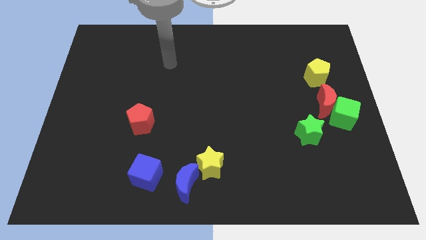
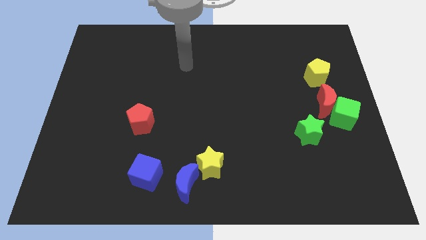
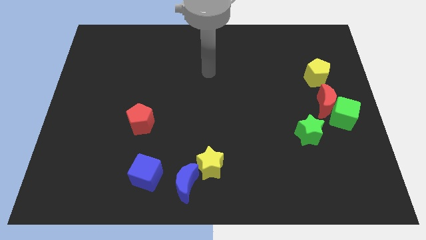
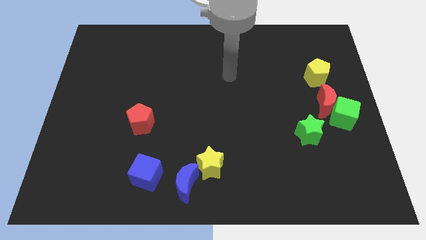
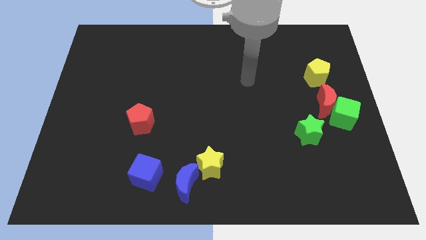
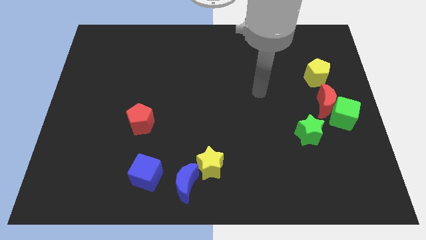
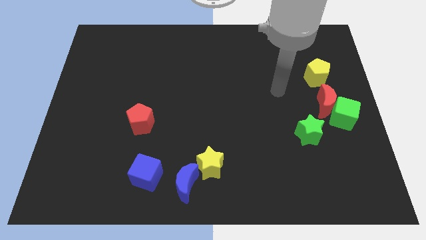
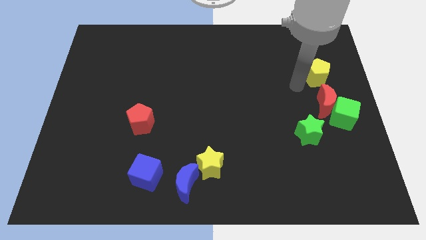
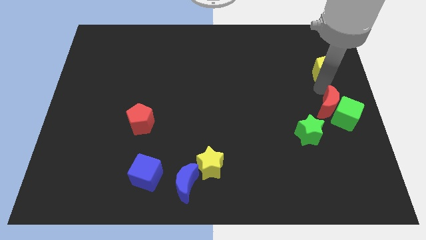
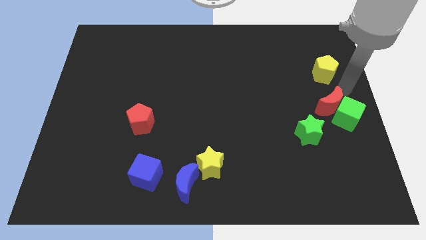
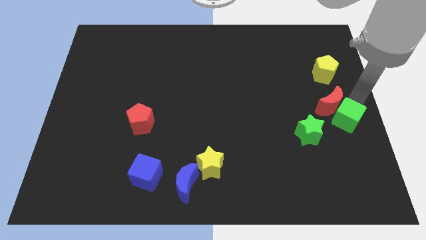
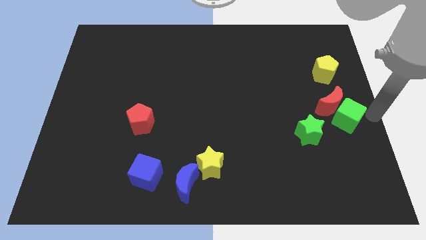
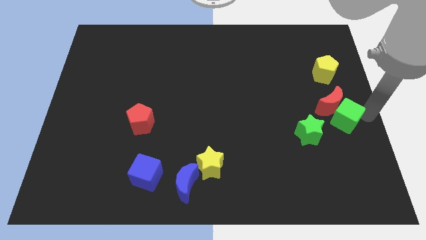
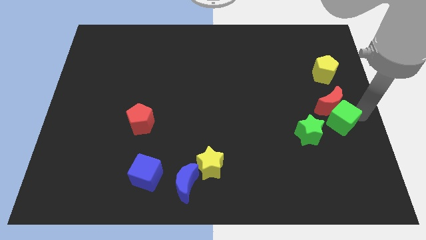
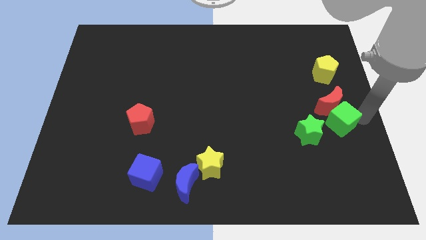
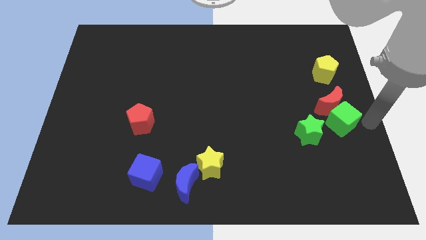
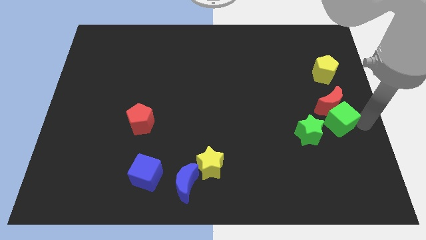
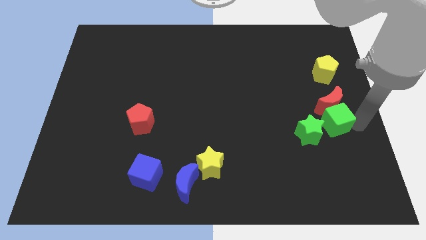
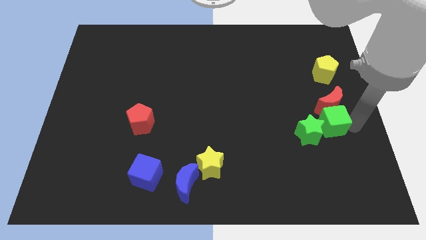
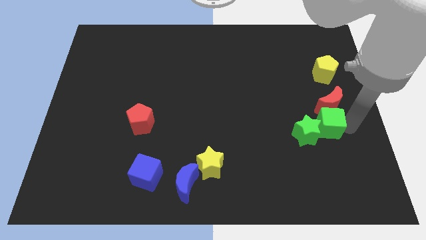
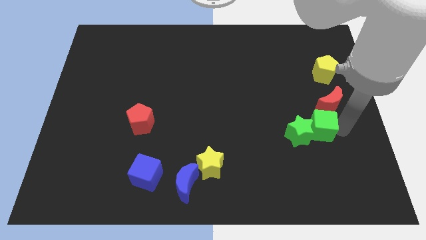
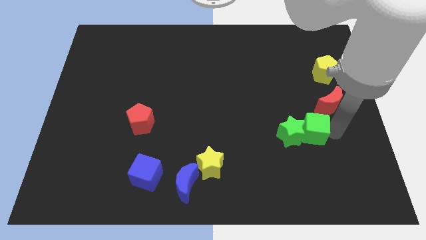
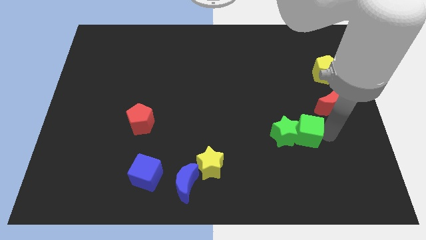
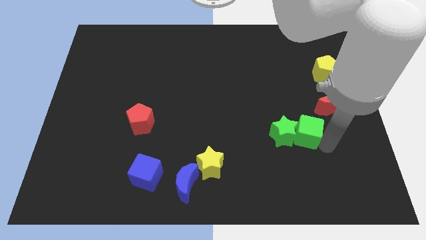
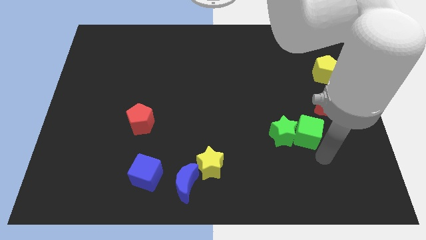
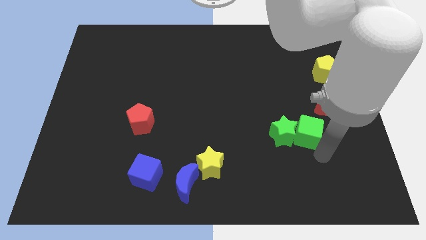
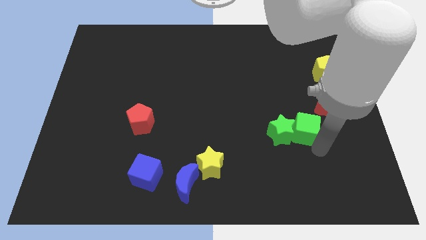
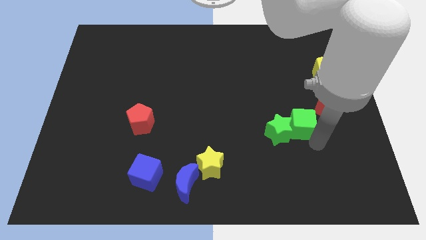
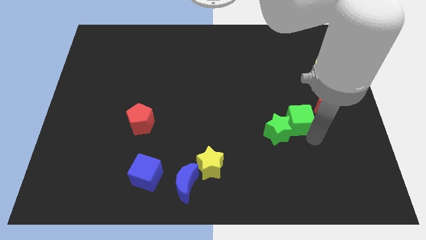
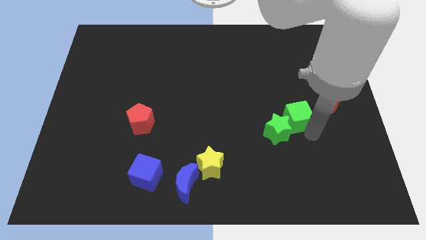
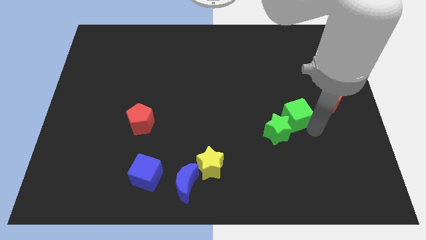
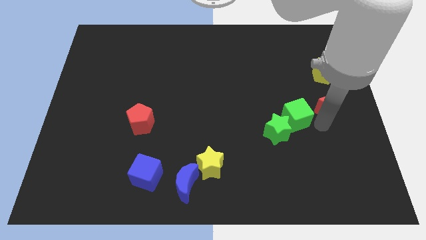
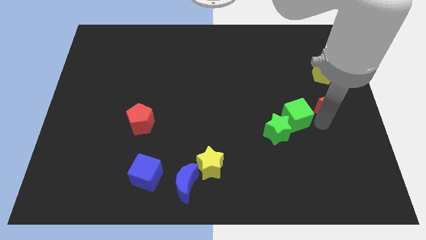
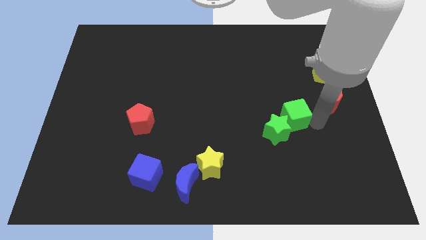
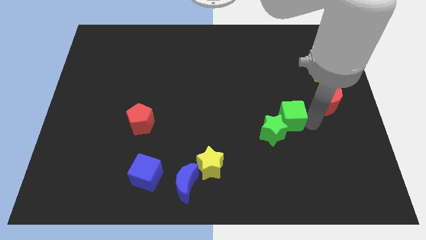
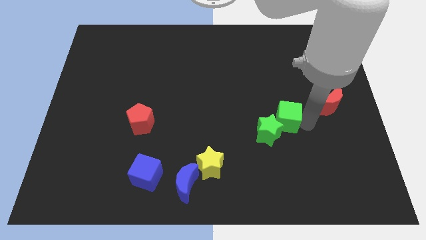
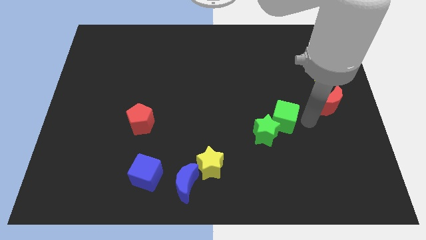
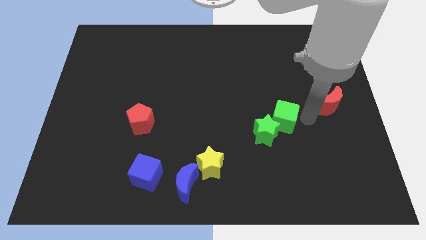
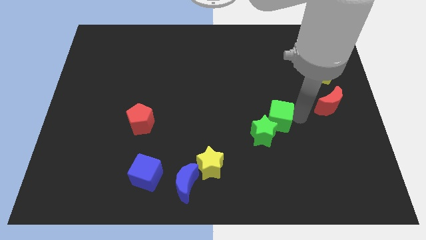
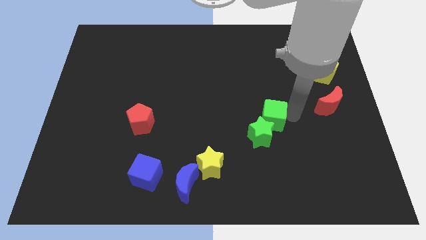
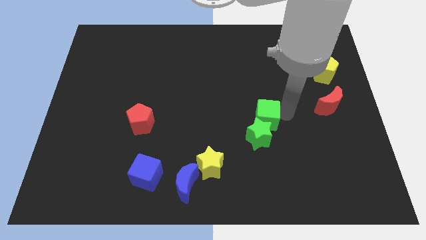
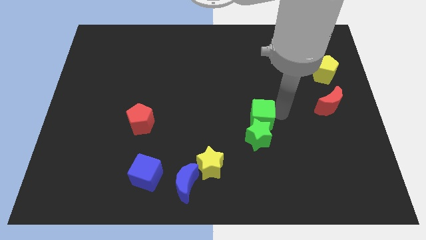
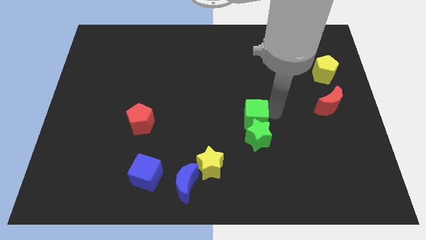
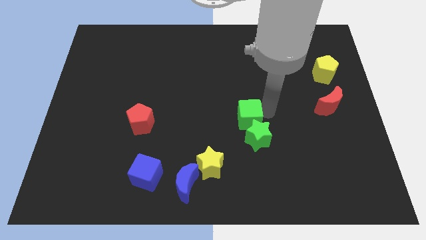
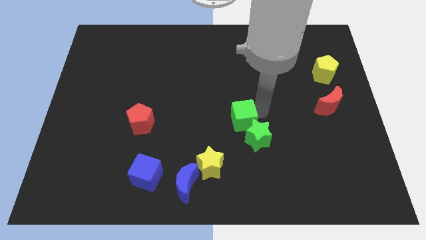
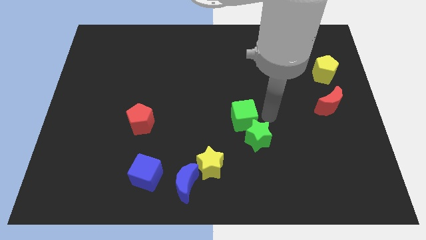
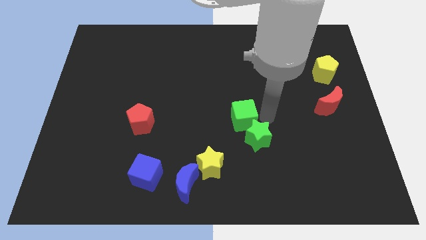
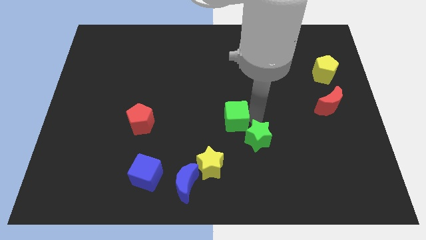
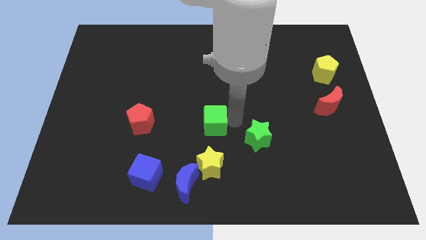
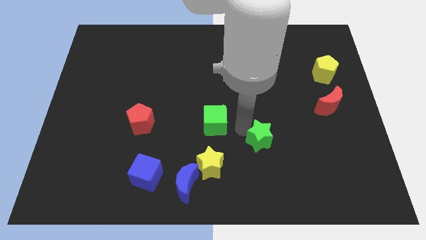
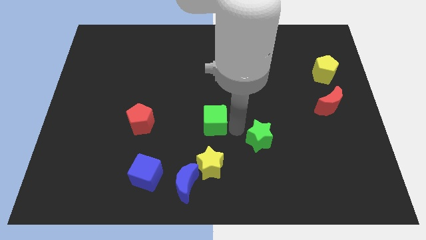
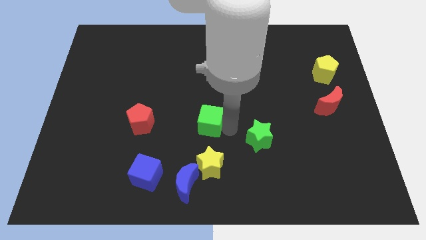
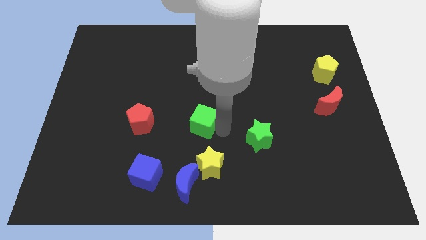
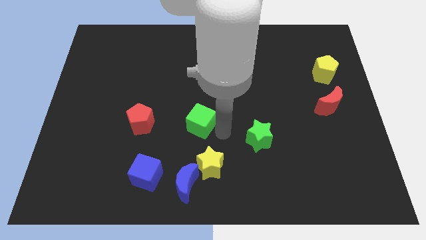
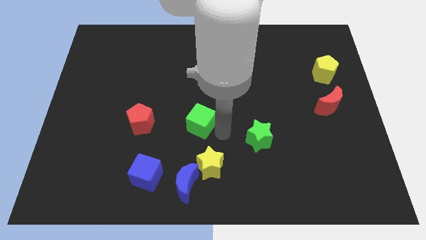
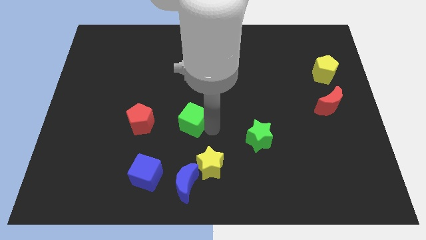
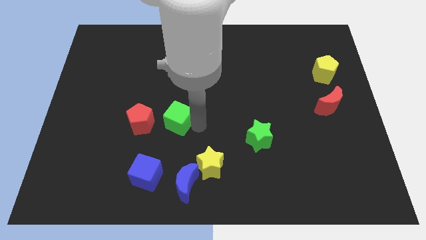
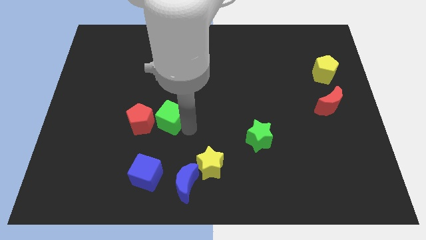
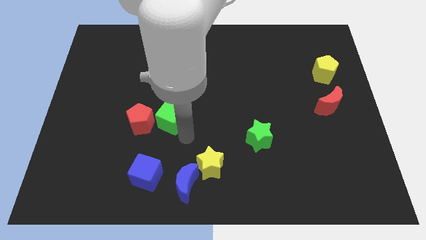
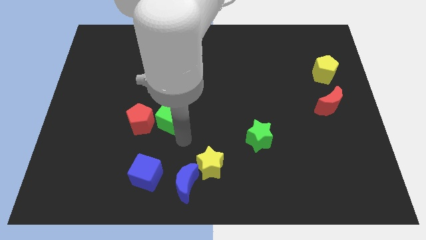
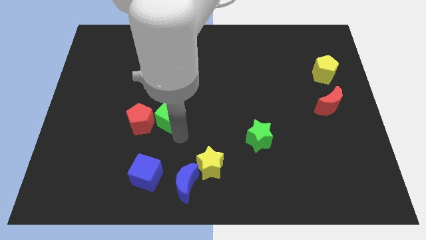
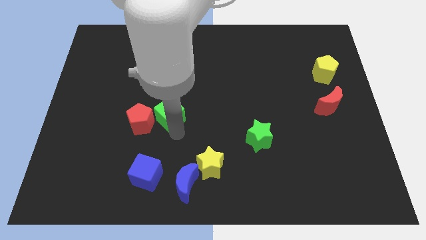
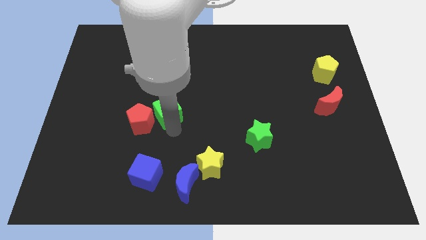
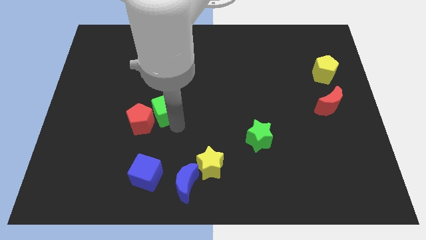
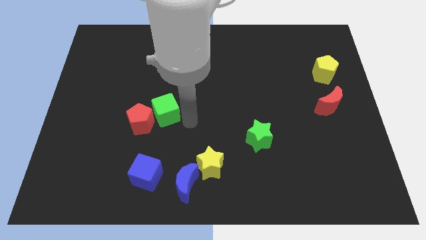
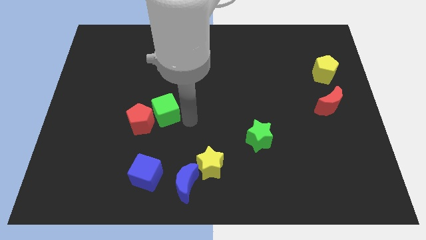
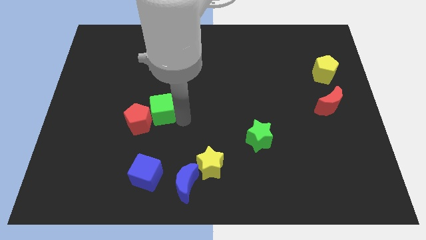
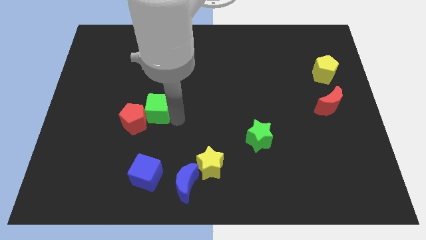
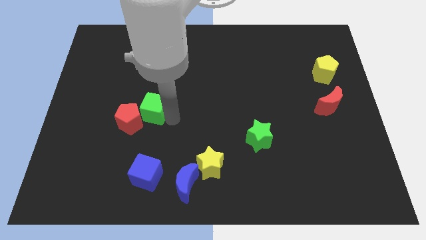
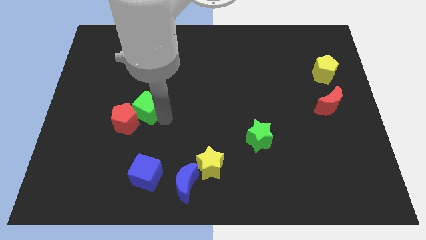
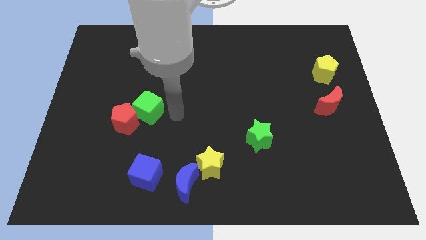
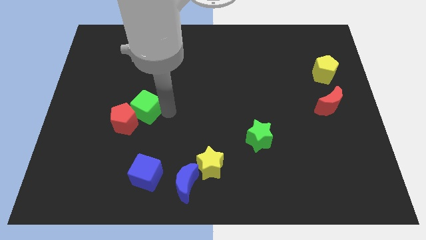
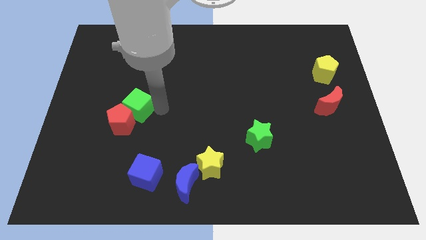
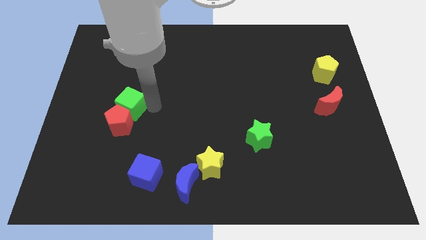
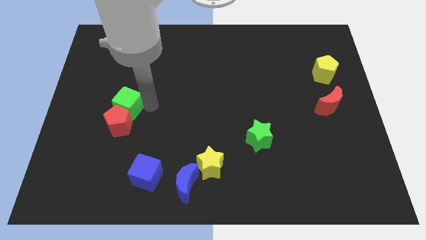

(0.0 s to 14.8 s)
push the green cube to the top left side of the red pentagon
